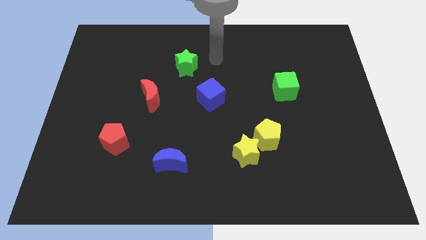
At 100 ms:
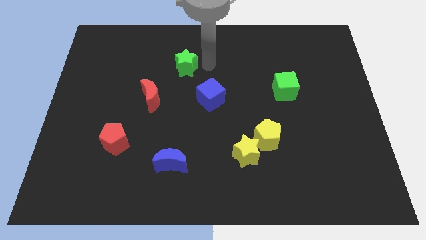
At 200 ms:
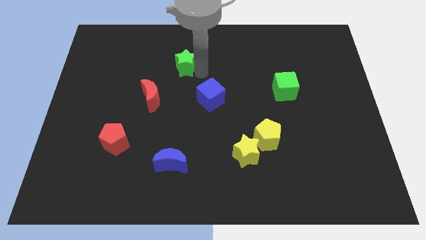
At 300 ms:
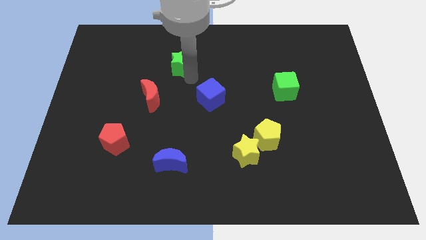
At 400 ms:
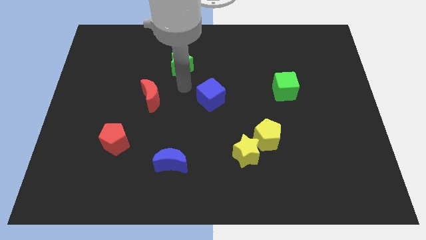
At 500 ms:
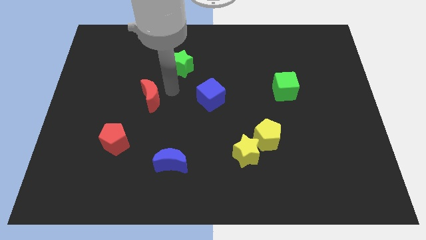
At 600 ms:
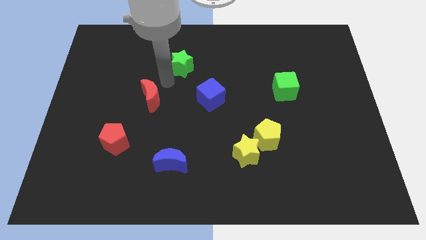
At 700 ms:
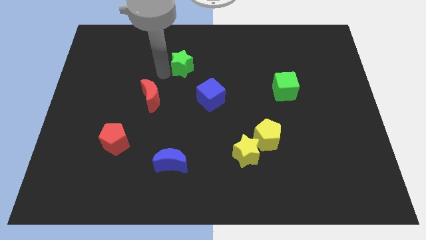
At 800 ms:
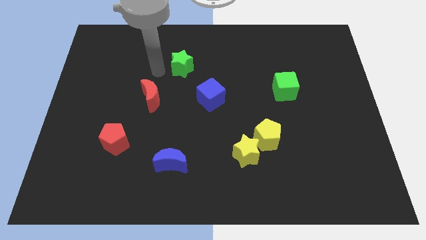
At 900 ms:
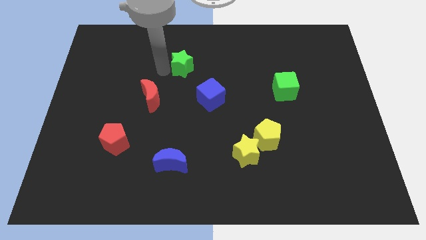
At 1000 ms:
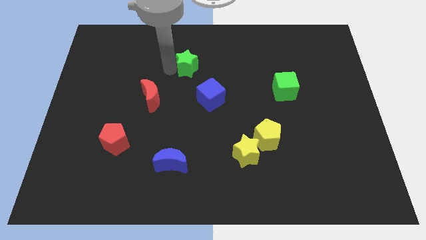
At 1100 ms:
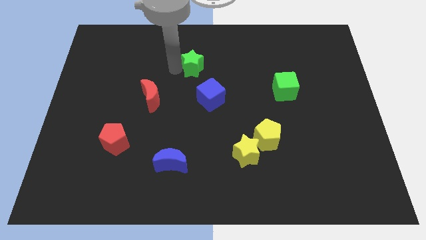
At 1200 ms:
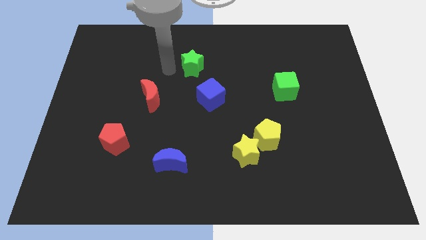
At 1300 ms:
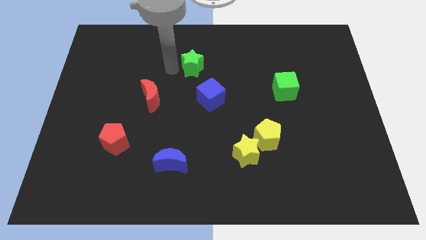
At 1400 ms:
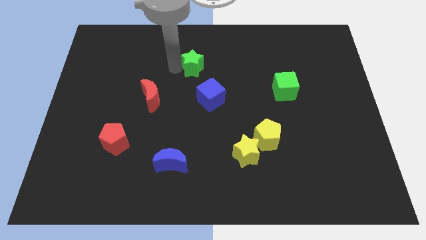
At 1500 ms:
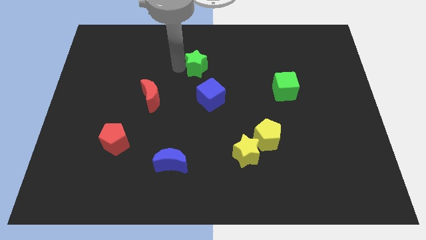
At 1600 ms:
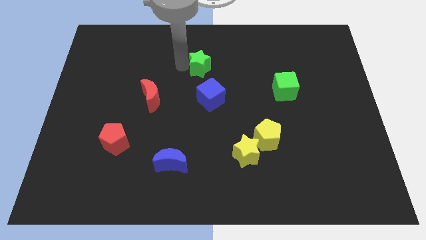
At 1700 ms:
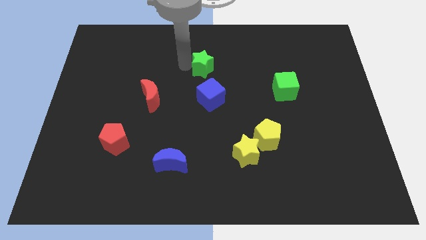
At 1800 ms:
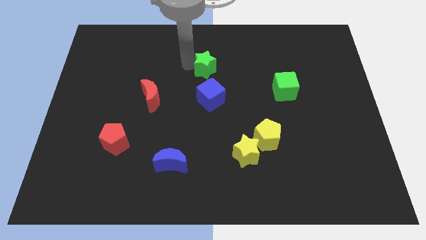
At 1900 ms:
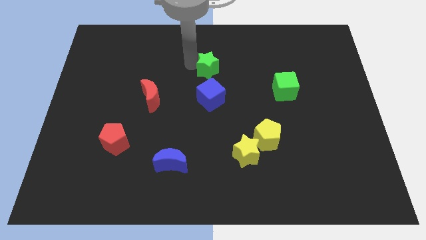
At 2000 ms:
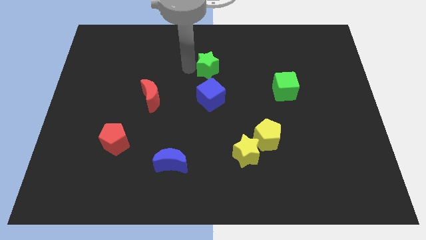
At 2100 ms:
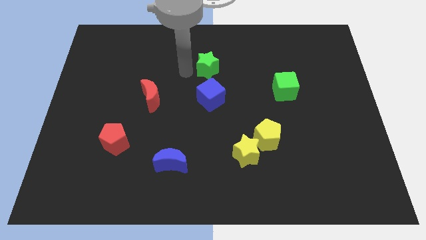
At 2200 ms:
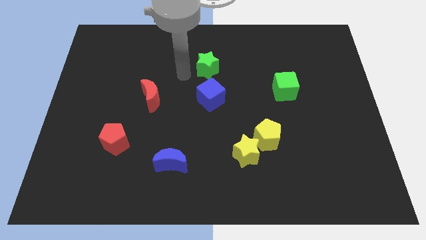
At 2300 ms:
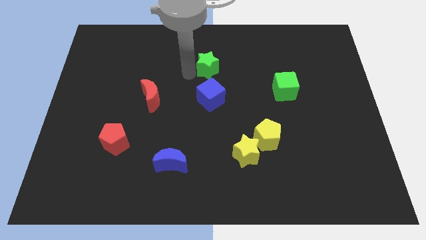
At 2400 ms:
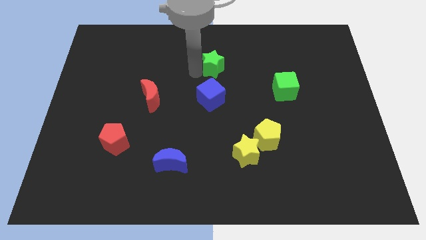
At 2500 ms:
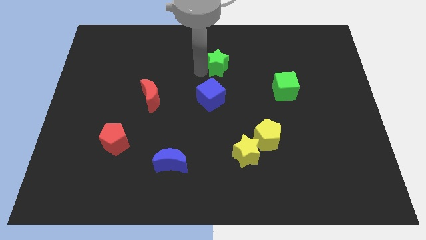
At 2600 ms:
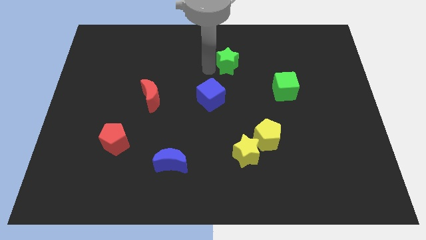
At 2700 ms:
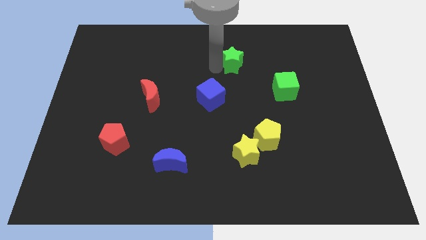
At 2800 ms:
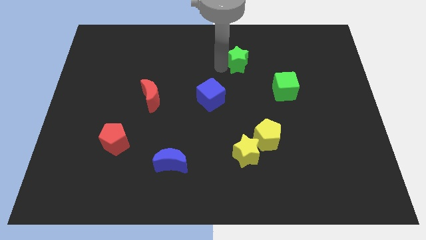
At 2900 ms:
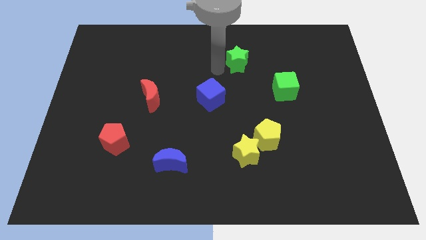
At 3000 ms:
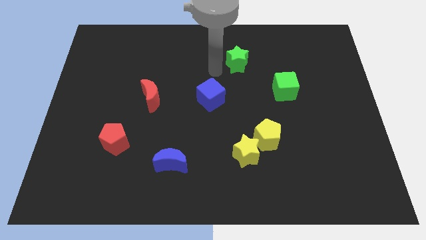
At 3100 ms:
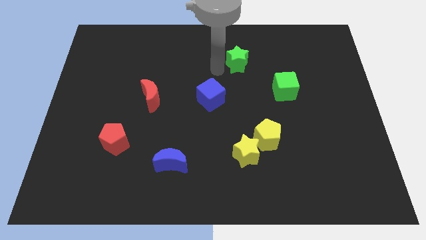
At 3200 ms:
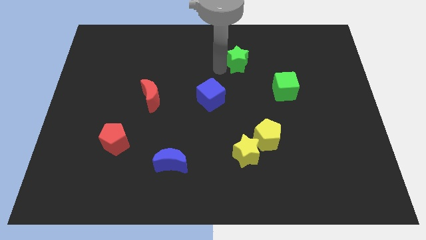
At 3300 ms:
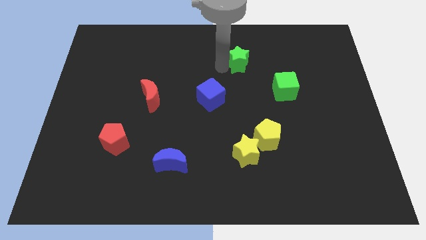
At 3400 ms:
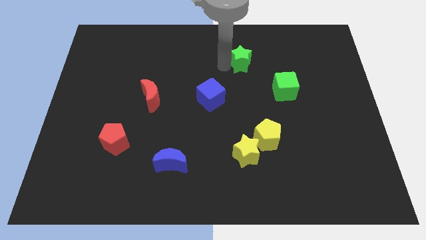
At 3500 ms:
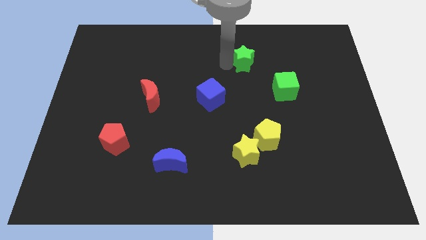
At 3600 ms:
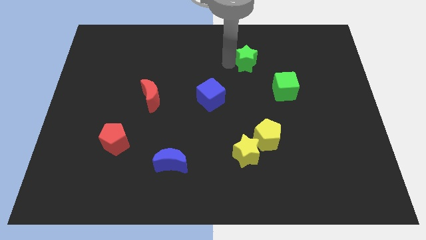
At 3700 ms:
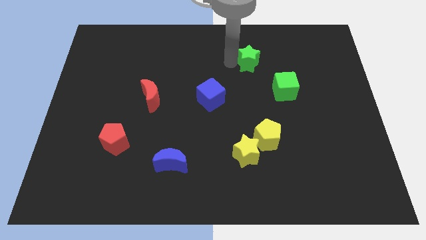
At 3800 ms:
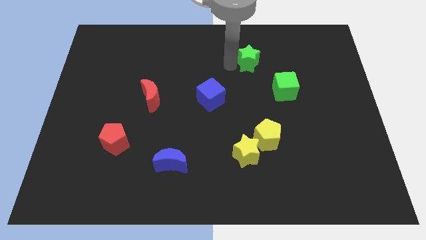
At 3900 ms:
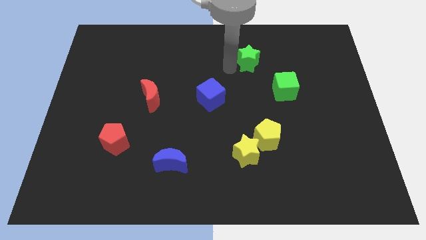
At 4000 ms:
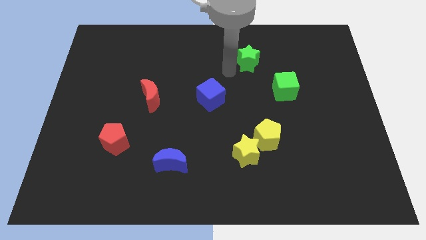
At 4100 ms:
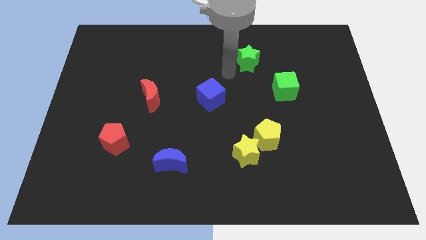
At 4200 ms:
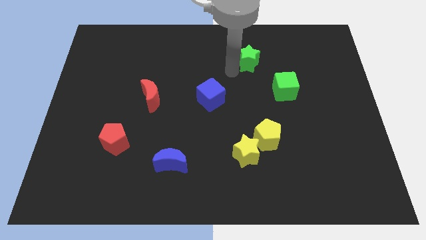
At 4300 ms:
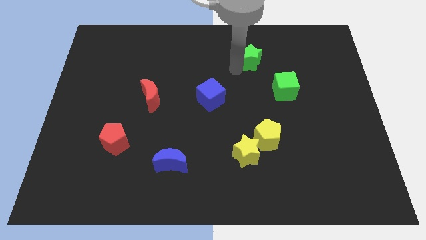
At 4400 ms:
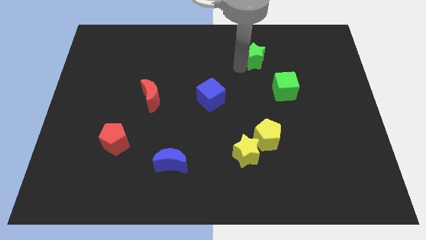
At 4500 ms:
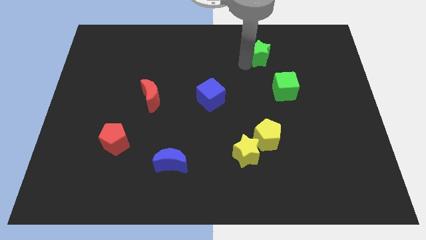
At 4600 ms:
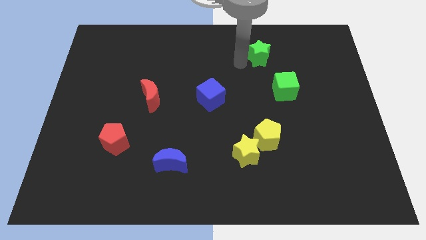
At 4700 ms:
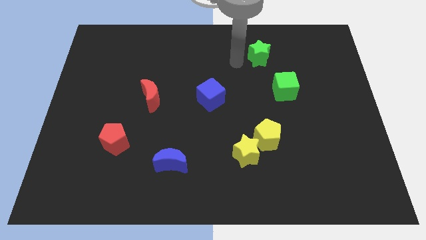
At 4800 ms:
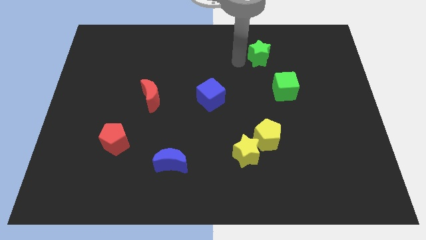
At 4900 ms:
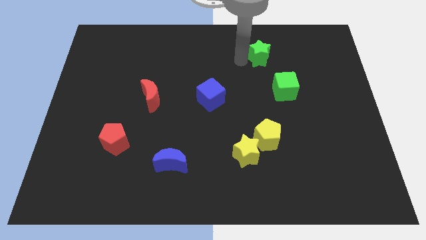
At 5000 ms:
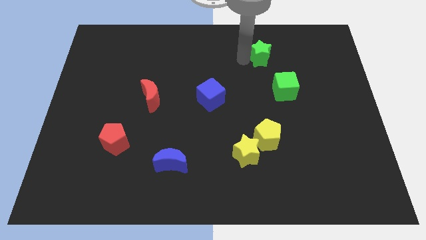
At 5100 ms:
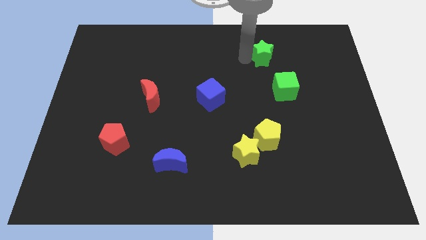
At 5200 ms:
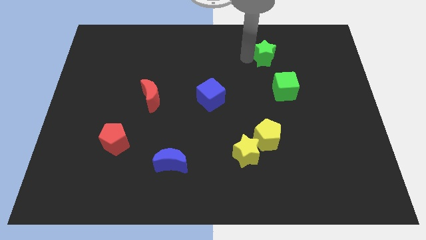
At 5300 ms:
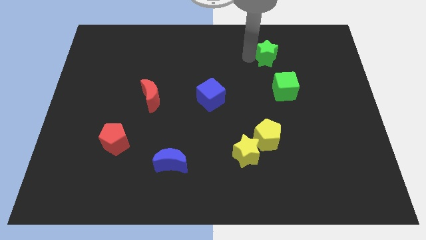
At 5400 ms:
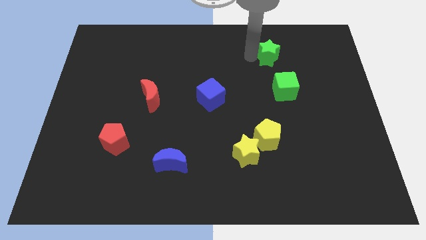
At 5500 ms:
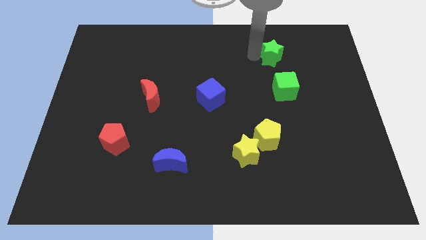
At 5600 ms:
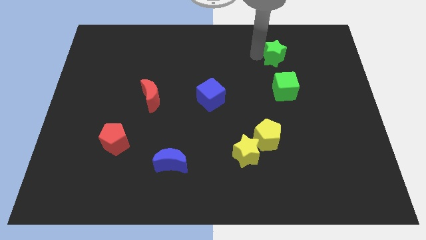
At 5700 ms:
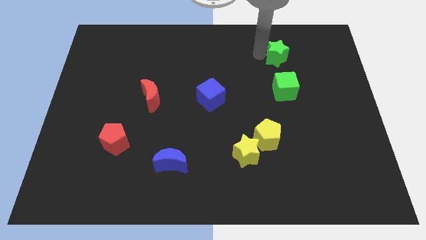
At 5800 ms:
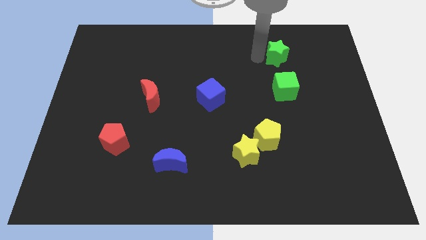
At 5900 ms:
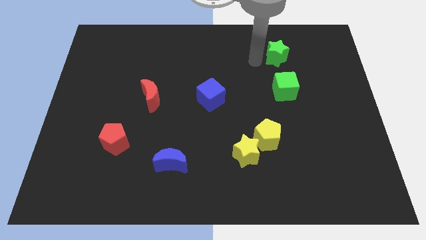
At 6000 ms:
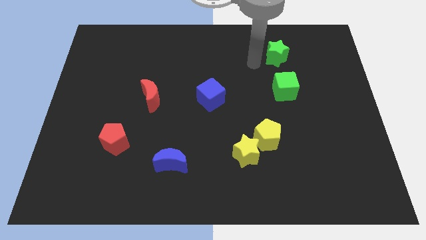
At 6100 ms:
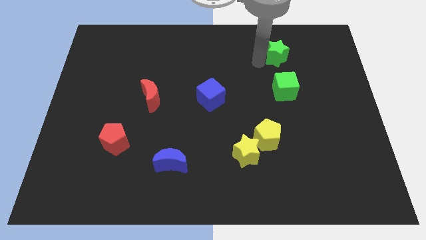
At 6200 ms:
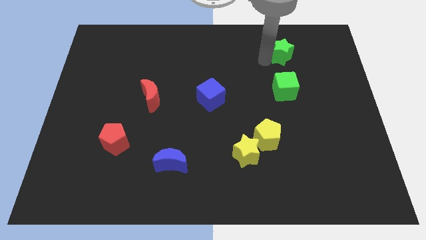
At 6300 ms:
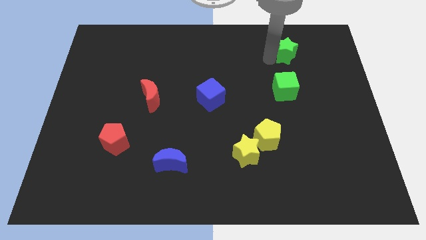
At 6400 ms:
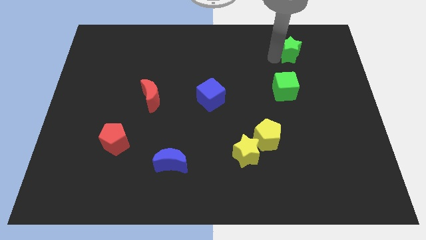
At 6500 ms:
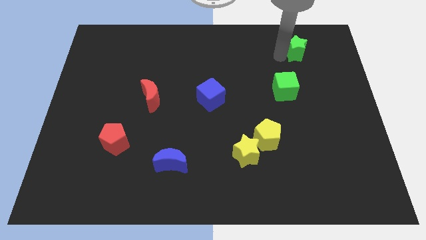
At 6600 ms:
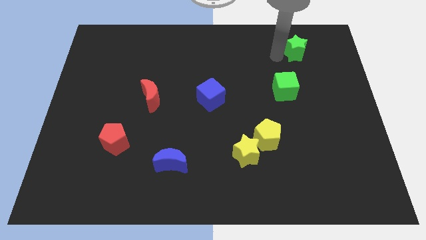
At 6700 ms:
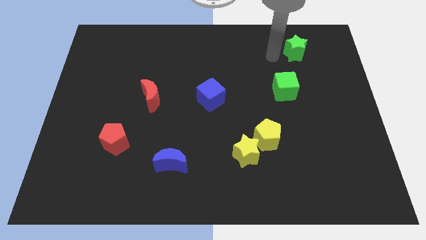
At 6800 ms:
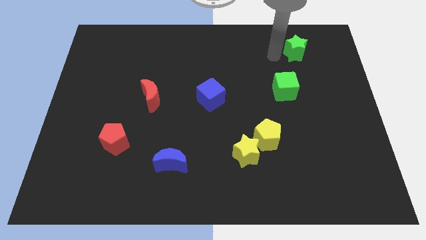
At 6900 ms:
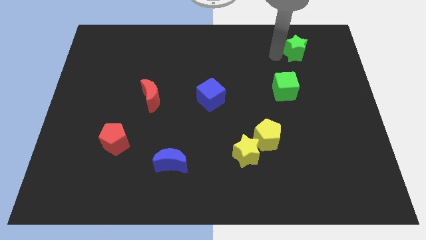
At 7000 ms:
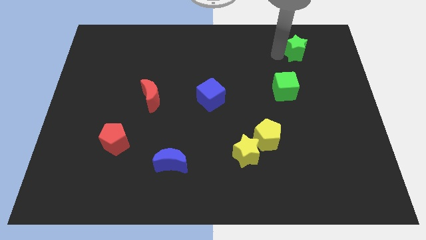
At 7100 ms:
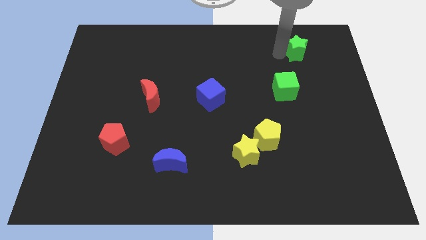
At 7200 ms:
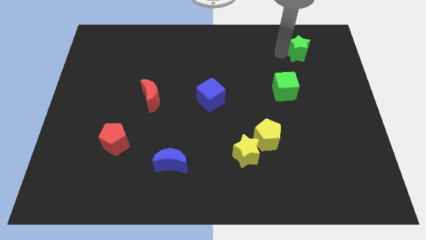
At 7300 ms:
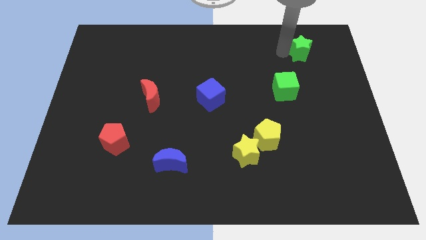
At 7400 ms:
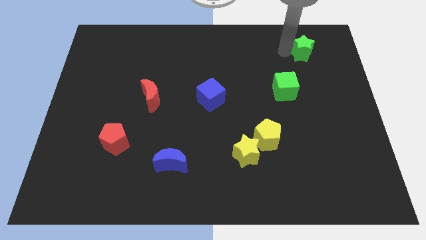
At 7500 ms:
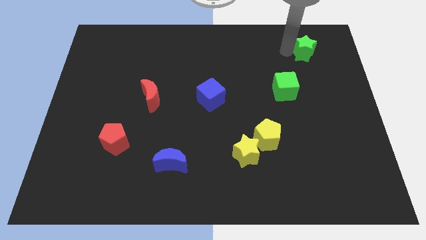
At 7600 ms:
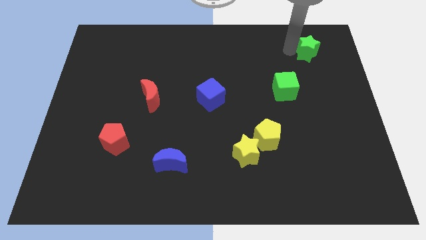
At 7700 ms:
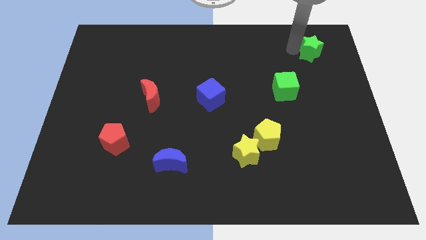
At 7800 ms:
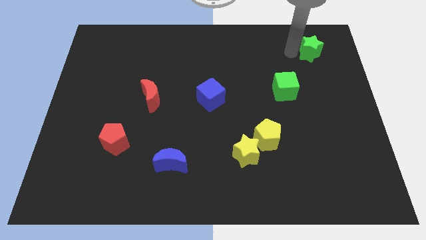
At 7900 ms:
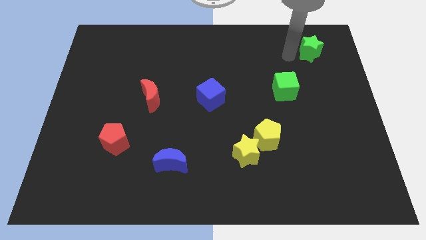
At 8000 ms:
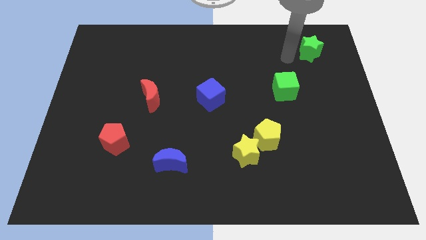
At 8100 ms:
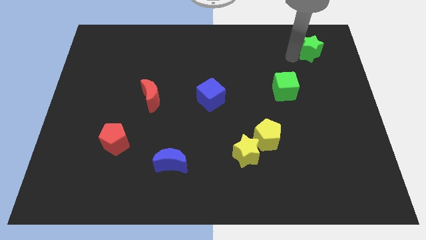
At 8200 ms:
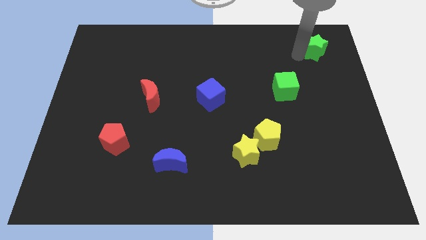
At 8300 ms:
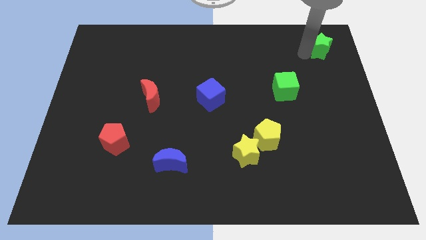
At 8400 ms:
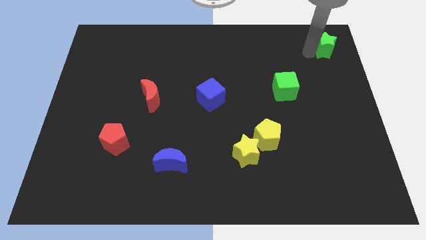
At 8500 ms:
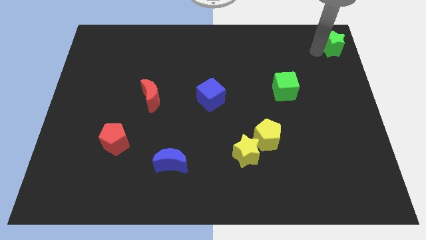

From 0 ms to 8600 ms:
put the green star to the top right corner
